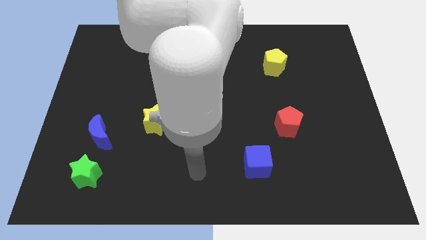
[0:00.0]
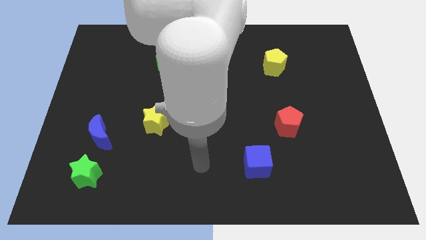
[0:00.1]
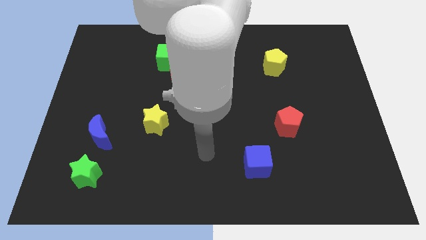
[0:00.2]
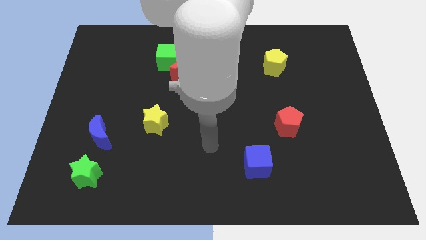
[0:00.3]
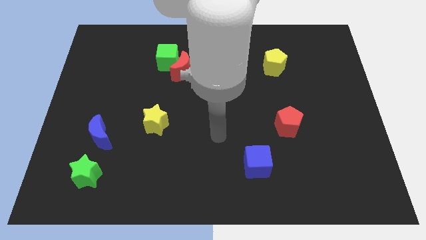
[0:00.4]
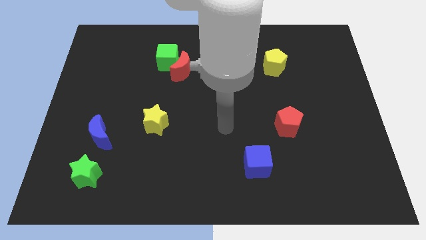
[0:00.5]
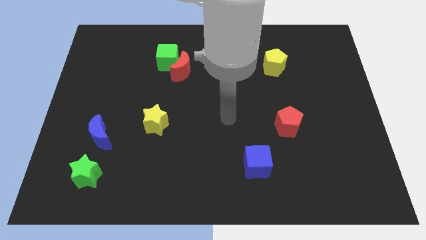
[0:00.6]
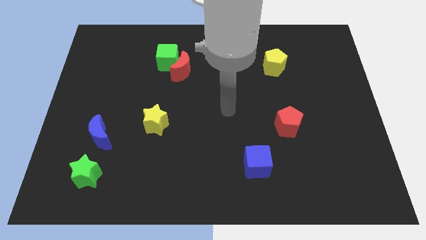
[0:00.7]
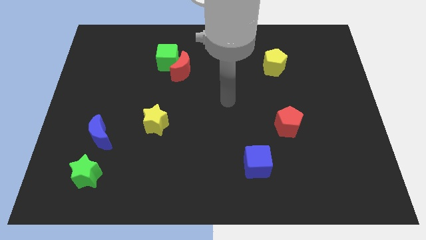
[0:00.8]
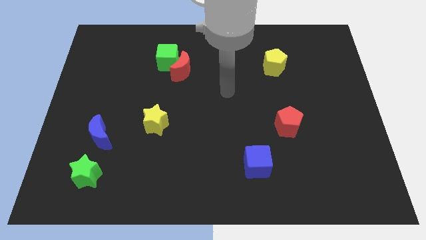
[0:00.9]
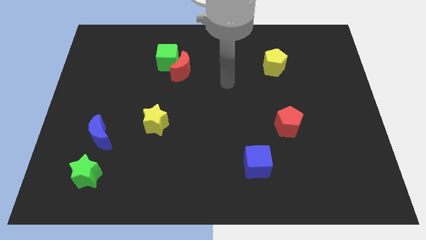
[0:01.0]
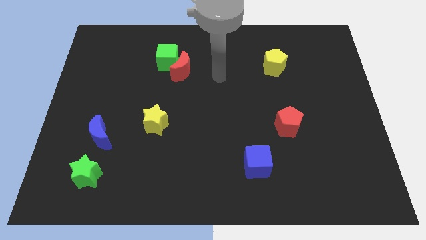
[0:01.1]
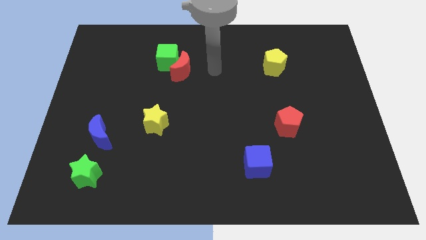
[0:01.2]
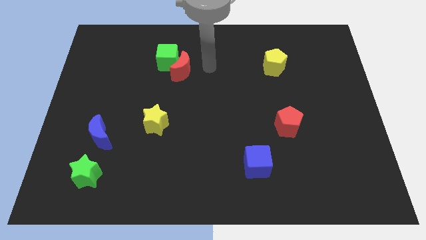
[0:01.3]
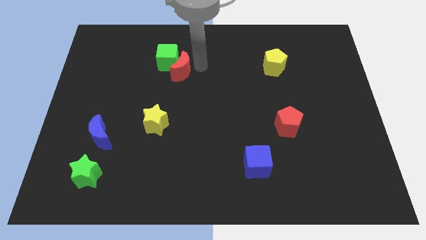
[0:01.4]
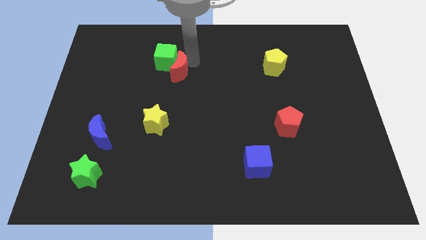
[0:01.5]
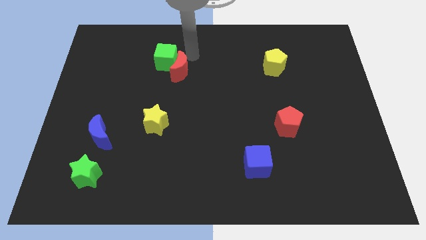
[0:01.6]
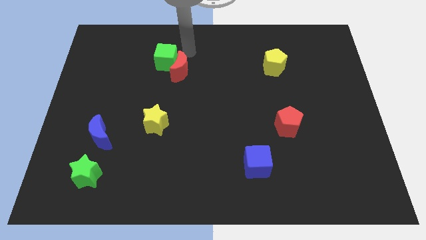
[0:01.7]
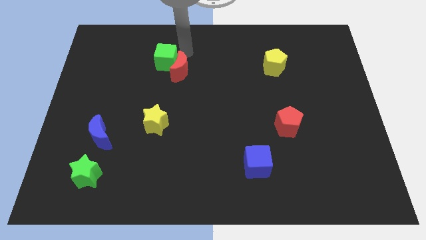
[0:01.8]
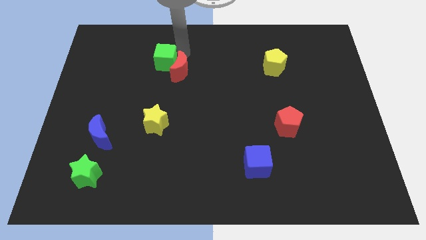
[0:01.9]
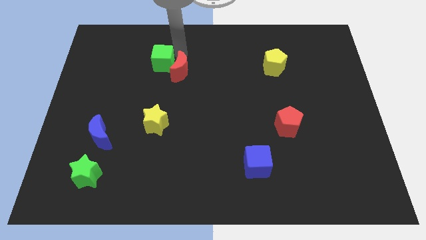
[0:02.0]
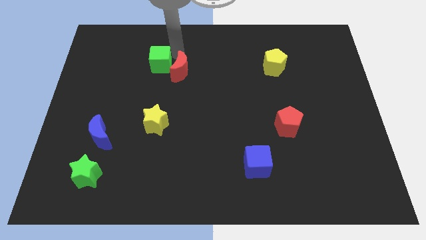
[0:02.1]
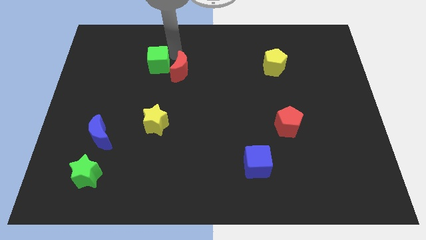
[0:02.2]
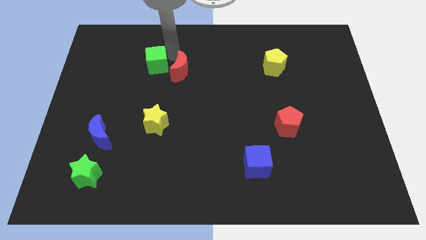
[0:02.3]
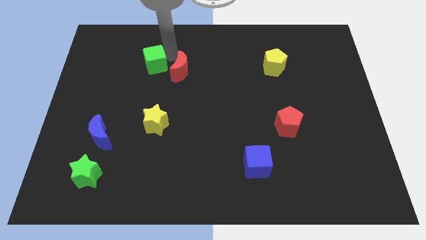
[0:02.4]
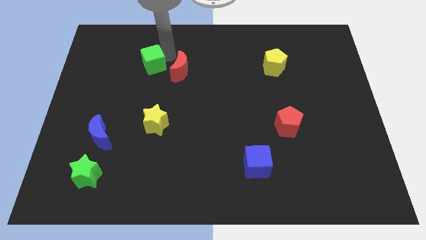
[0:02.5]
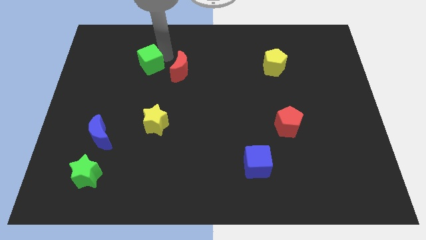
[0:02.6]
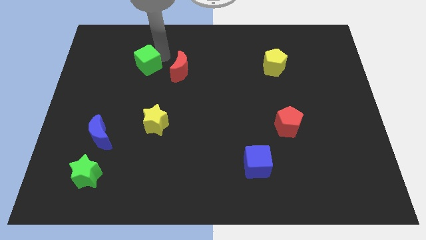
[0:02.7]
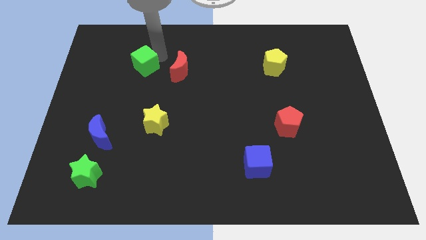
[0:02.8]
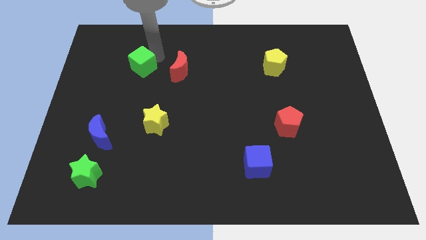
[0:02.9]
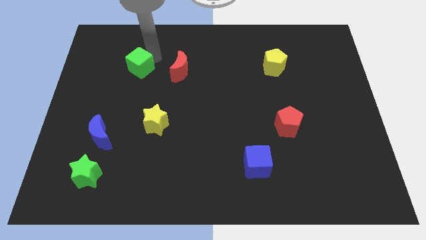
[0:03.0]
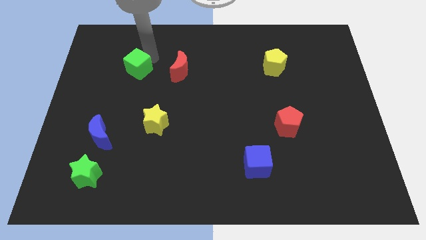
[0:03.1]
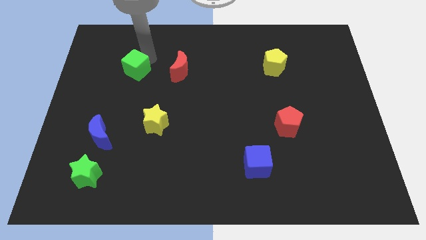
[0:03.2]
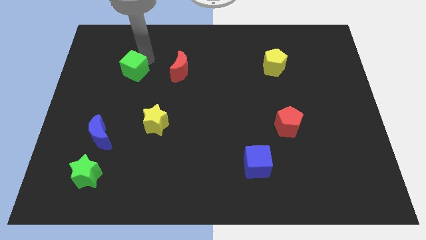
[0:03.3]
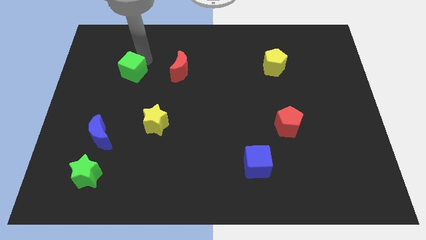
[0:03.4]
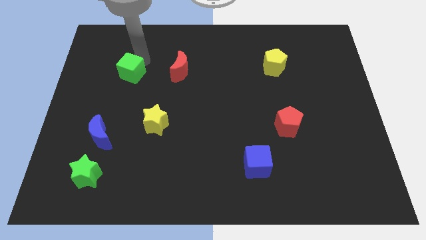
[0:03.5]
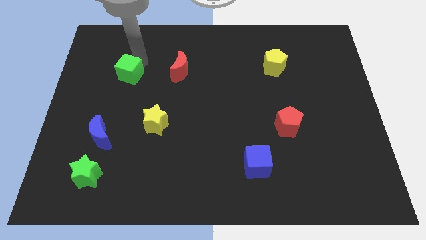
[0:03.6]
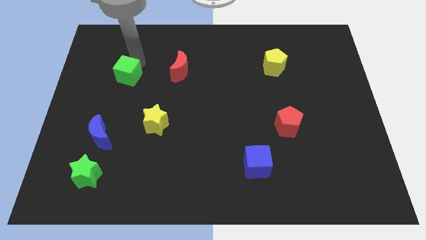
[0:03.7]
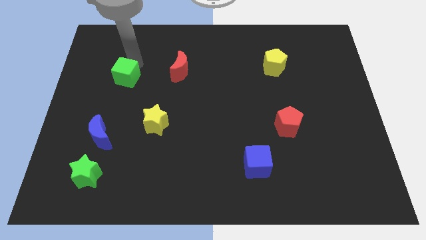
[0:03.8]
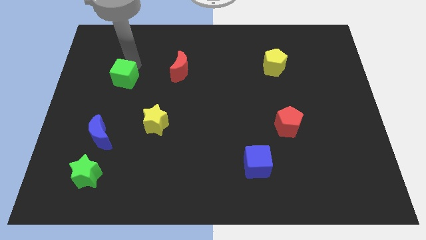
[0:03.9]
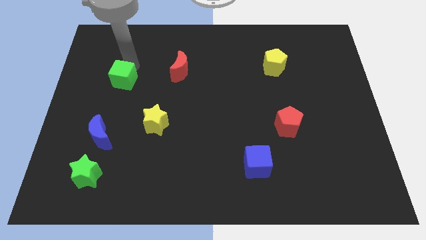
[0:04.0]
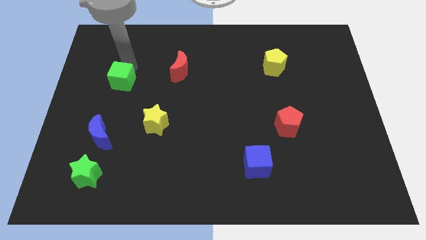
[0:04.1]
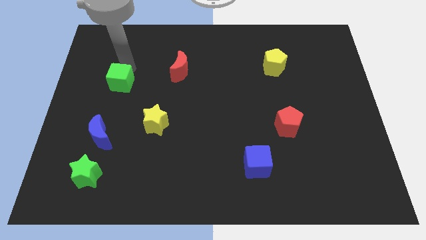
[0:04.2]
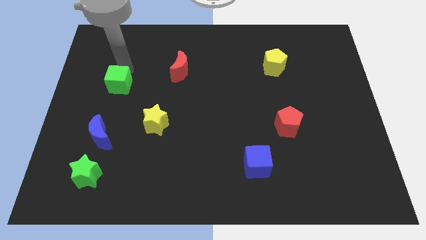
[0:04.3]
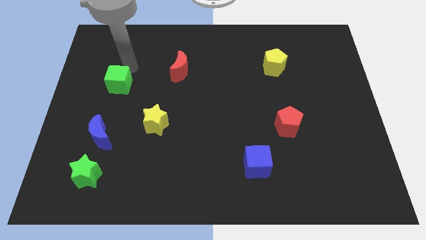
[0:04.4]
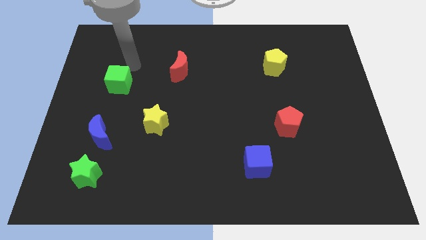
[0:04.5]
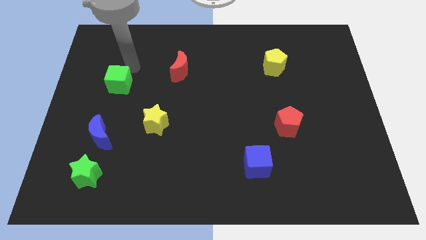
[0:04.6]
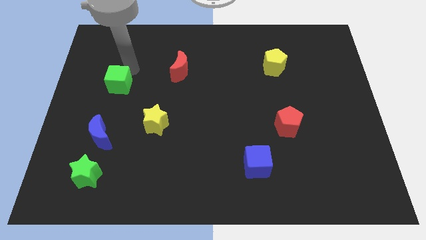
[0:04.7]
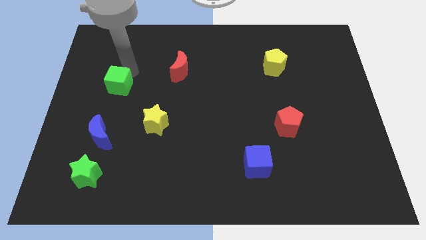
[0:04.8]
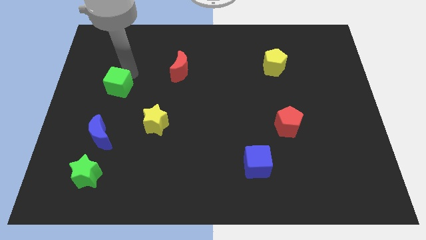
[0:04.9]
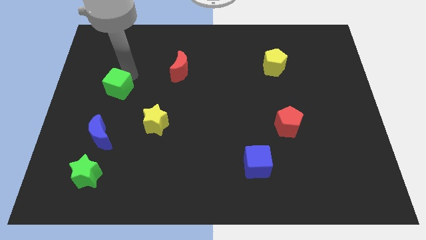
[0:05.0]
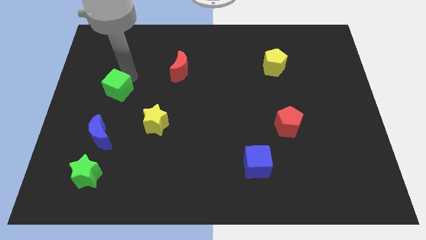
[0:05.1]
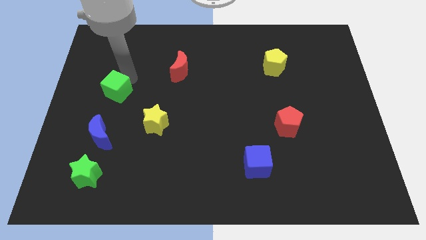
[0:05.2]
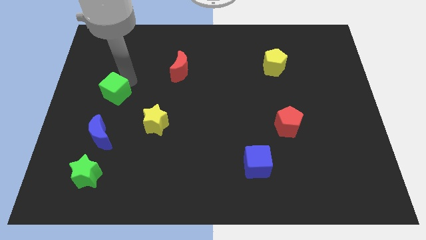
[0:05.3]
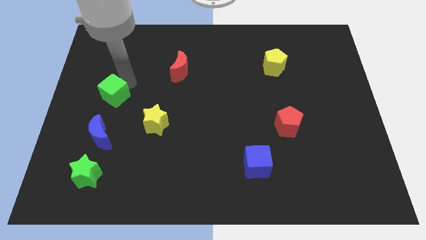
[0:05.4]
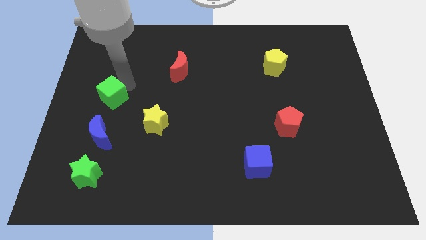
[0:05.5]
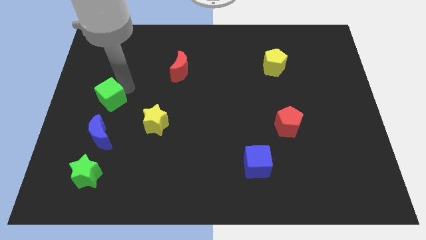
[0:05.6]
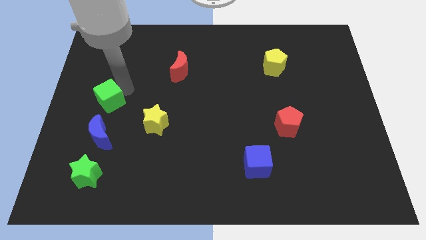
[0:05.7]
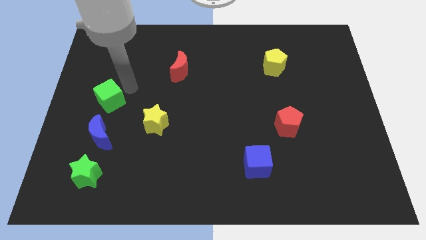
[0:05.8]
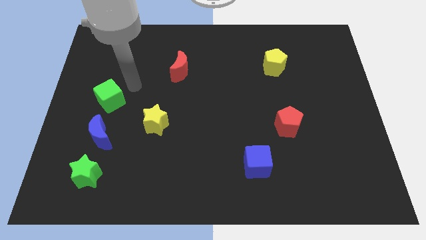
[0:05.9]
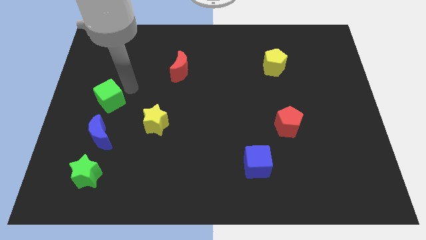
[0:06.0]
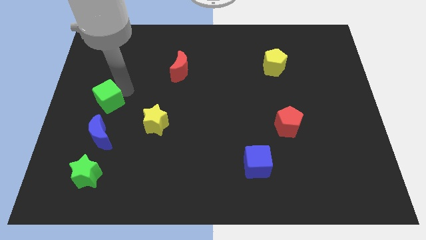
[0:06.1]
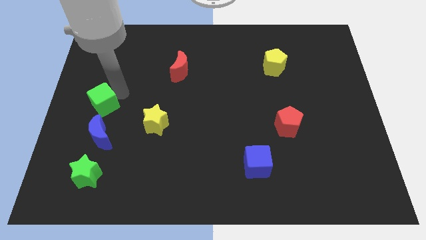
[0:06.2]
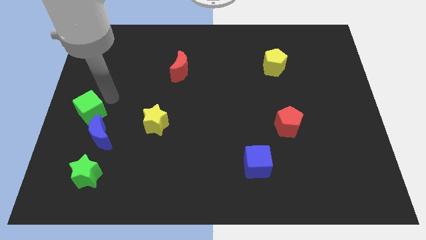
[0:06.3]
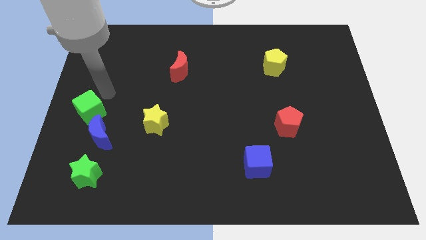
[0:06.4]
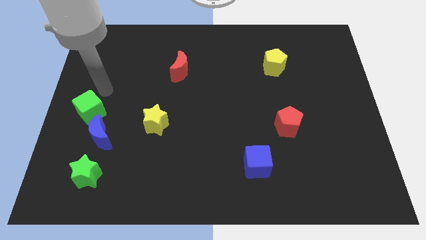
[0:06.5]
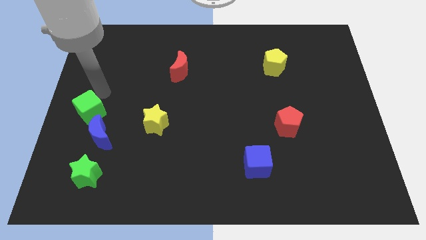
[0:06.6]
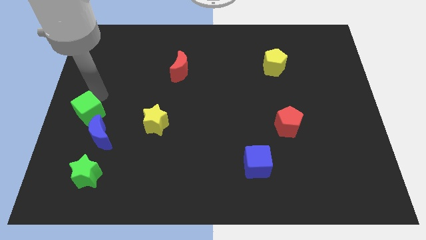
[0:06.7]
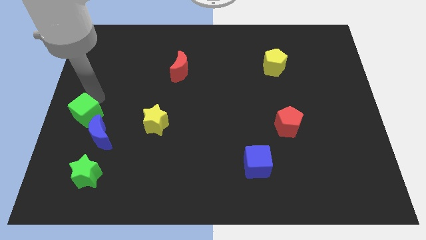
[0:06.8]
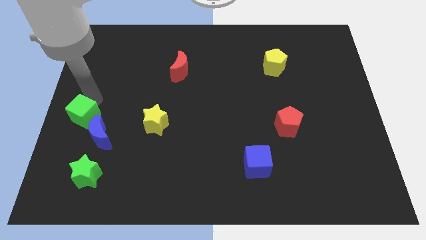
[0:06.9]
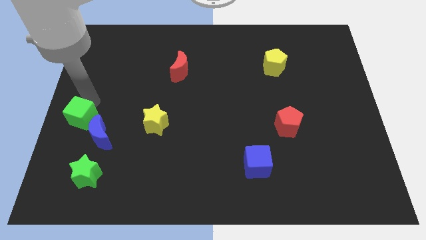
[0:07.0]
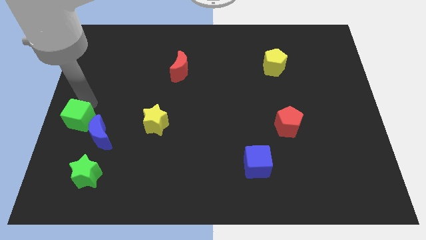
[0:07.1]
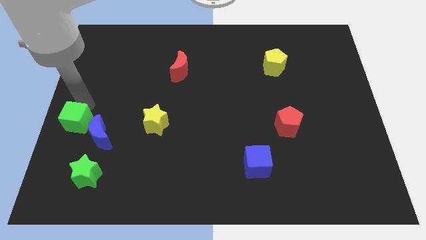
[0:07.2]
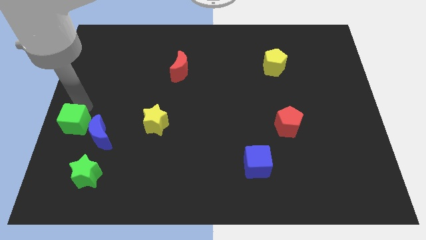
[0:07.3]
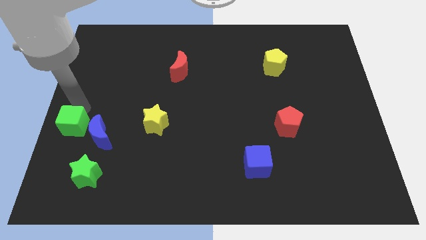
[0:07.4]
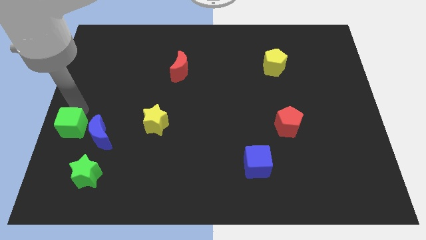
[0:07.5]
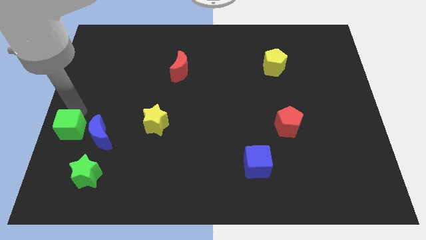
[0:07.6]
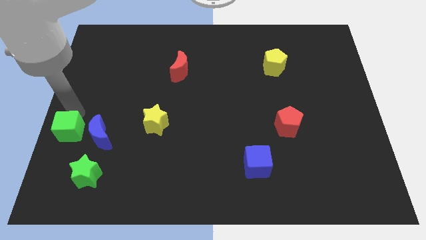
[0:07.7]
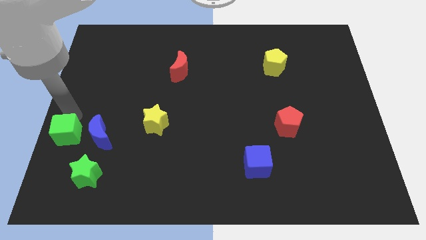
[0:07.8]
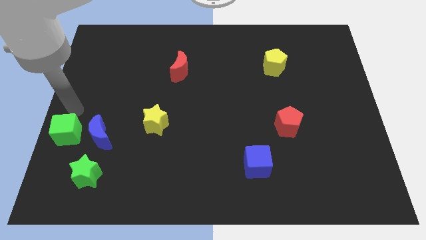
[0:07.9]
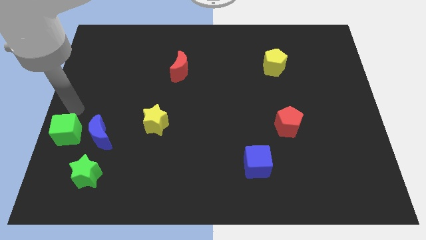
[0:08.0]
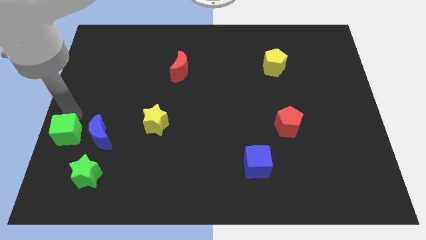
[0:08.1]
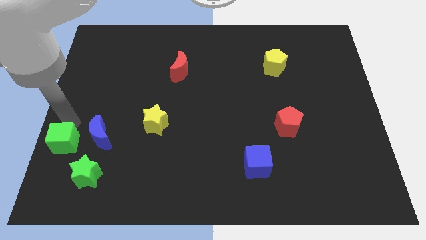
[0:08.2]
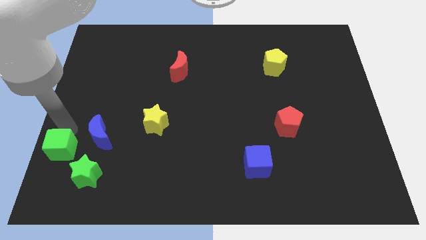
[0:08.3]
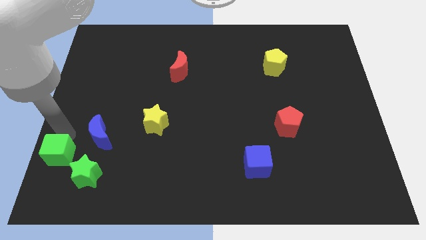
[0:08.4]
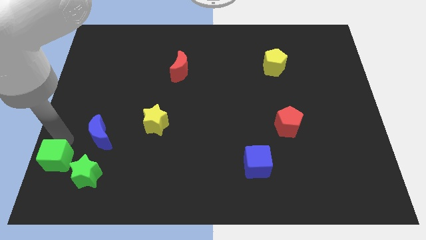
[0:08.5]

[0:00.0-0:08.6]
slide the green cube to the bottom left
